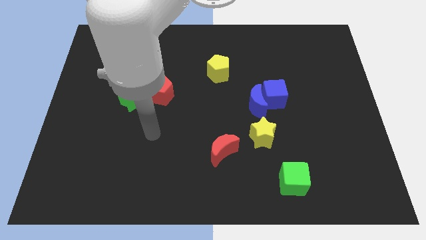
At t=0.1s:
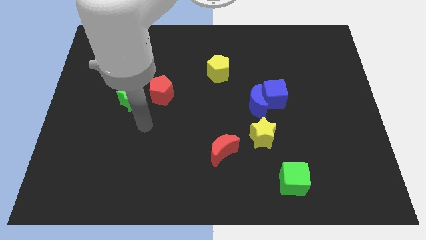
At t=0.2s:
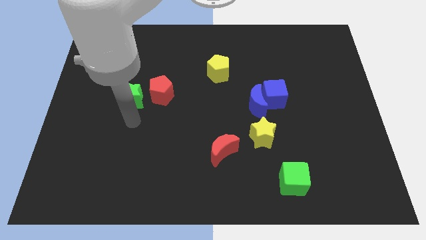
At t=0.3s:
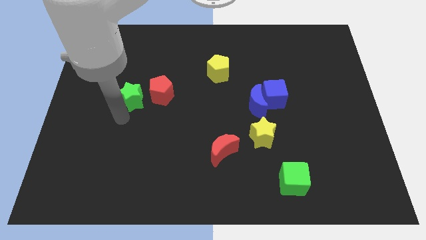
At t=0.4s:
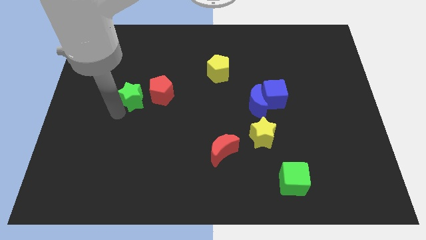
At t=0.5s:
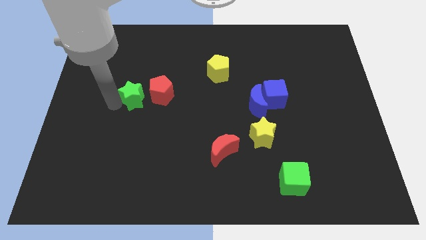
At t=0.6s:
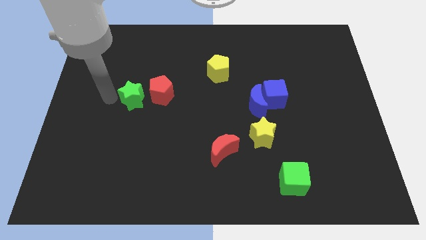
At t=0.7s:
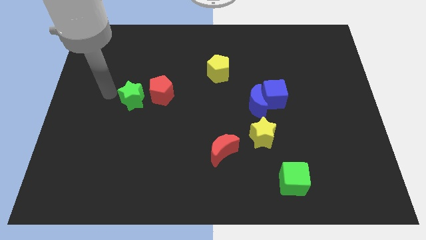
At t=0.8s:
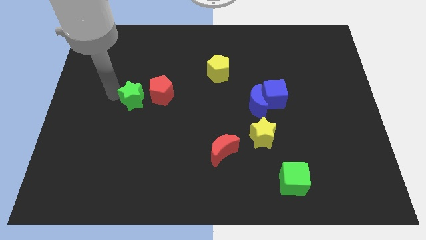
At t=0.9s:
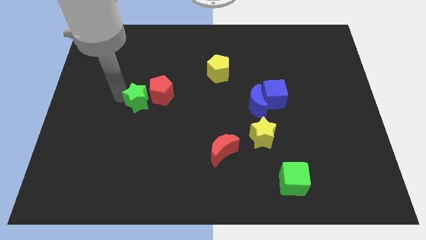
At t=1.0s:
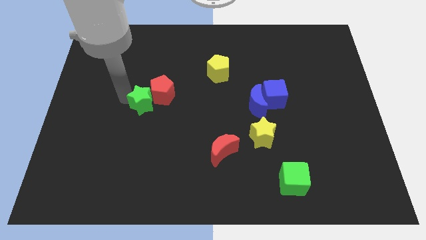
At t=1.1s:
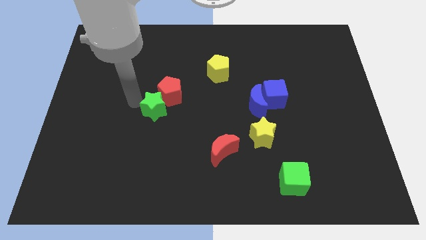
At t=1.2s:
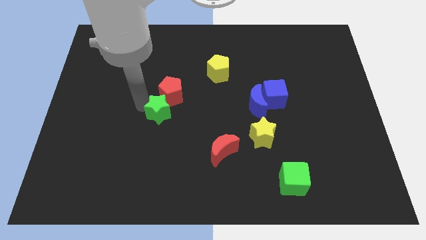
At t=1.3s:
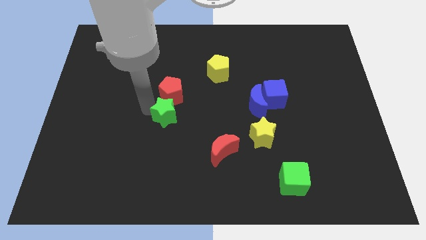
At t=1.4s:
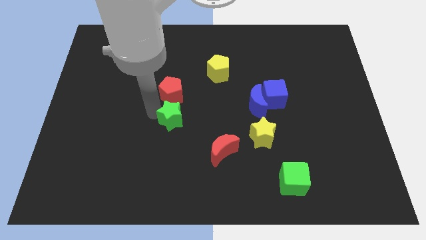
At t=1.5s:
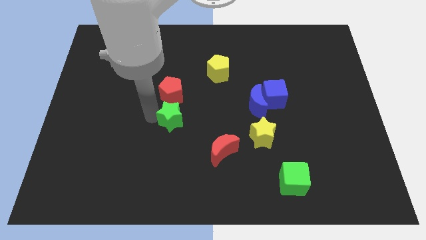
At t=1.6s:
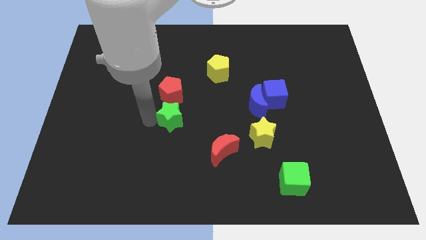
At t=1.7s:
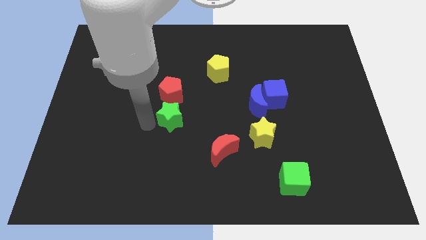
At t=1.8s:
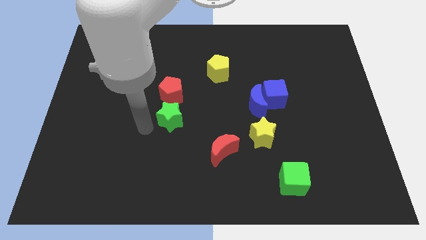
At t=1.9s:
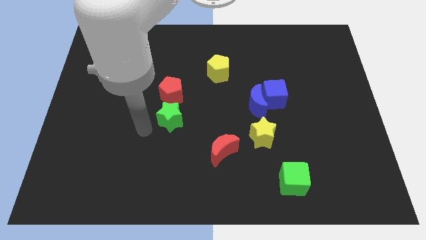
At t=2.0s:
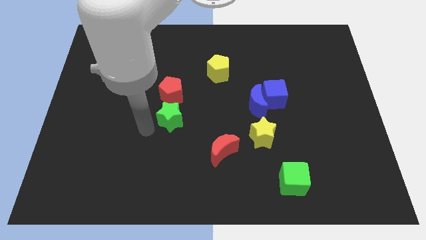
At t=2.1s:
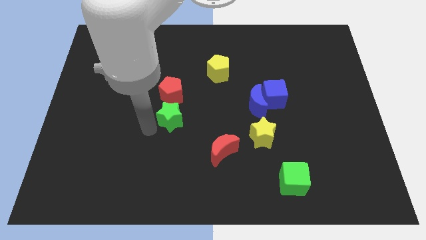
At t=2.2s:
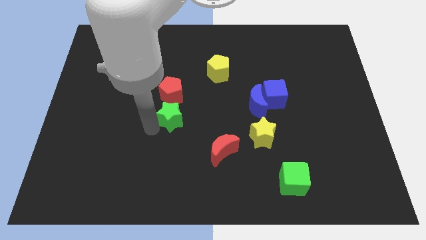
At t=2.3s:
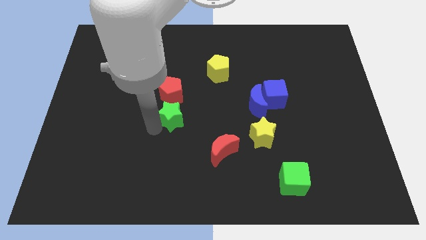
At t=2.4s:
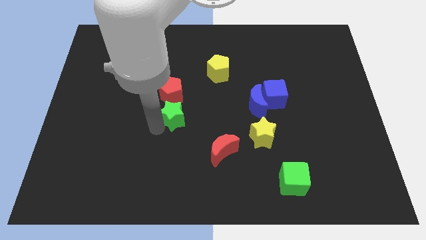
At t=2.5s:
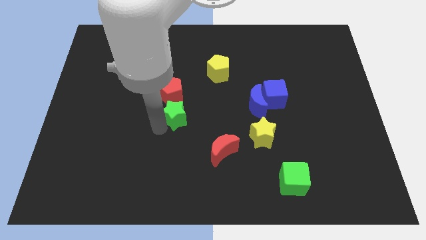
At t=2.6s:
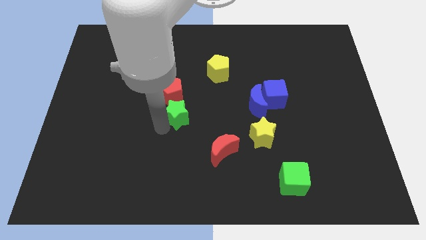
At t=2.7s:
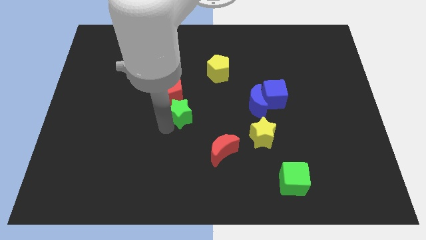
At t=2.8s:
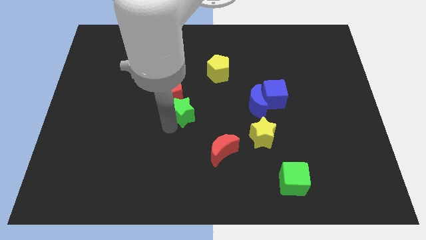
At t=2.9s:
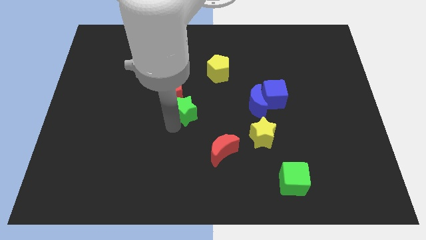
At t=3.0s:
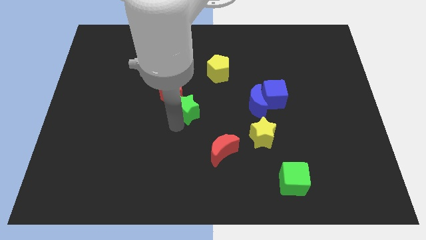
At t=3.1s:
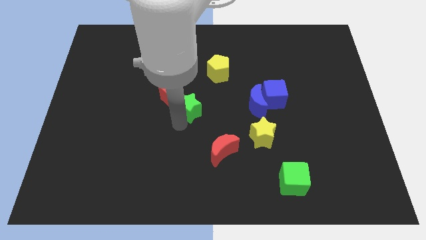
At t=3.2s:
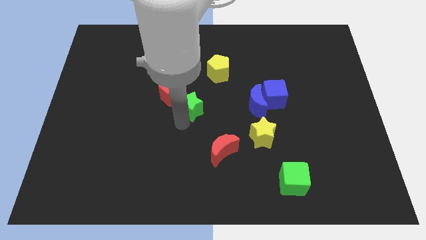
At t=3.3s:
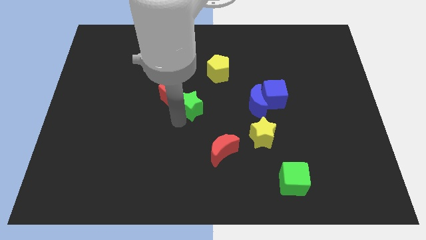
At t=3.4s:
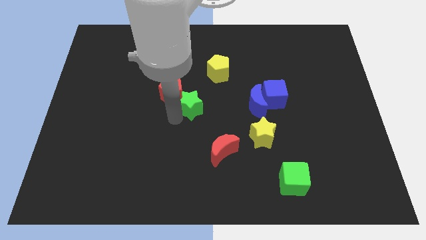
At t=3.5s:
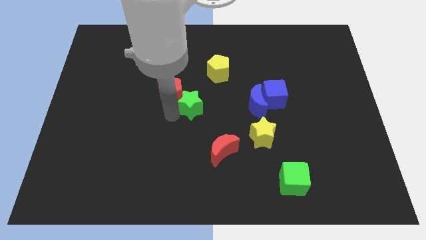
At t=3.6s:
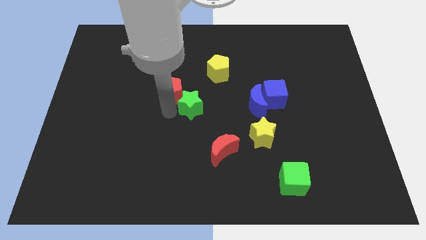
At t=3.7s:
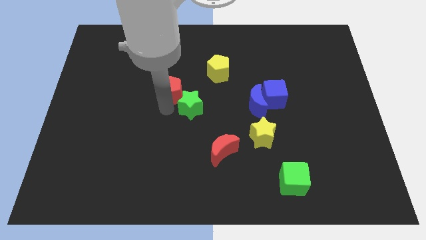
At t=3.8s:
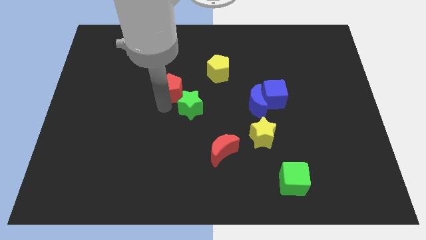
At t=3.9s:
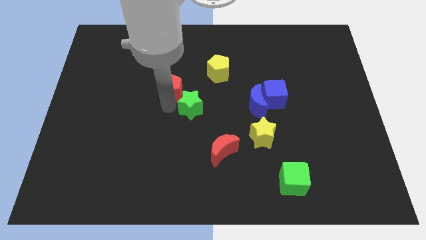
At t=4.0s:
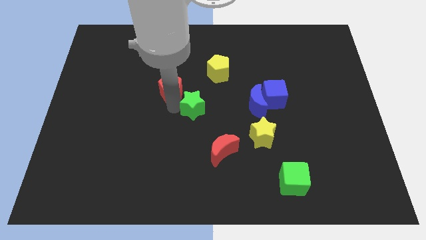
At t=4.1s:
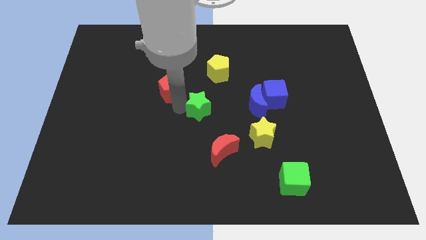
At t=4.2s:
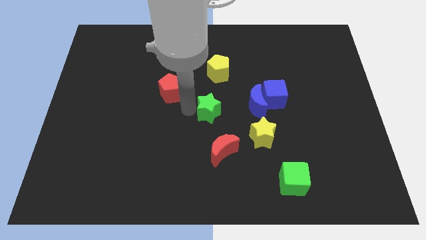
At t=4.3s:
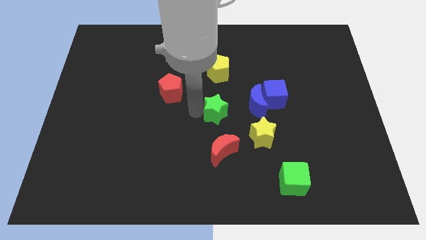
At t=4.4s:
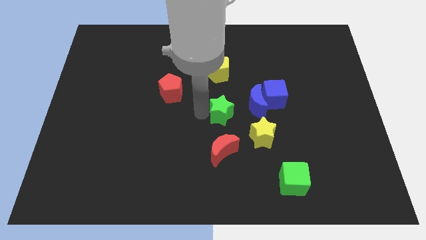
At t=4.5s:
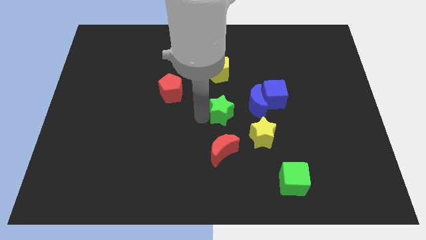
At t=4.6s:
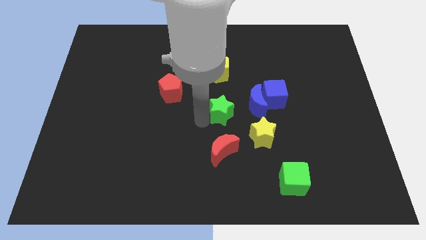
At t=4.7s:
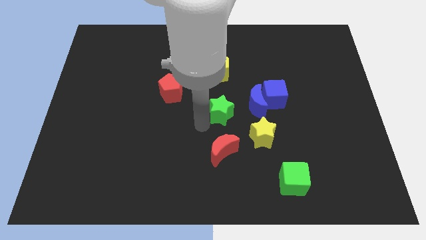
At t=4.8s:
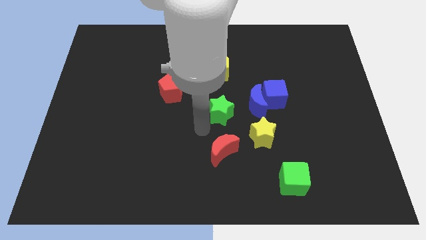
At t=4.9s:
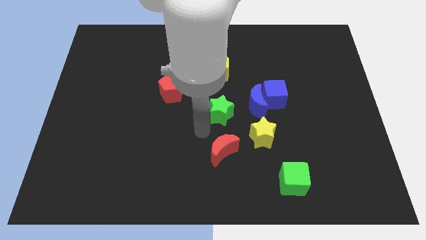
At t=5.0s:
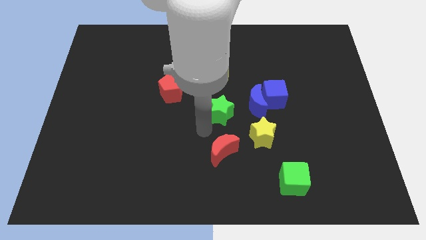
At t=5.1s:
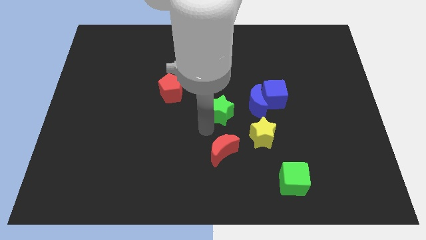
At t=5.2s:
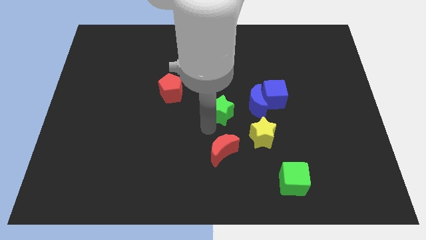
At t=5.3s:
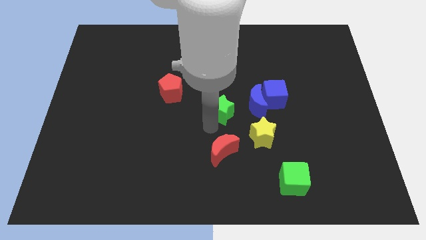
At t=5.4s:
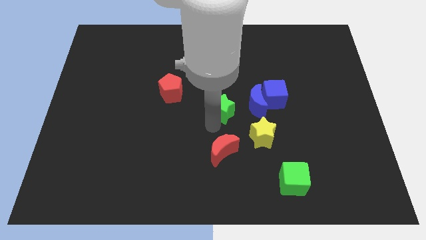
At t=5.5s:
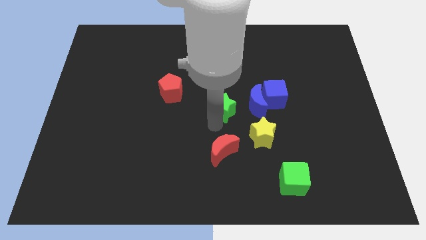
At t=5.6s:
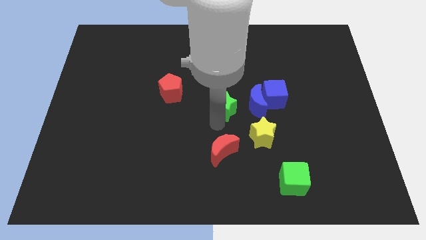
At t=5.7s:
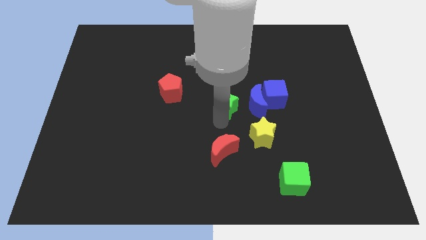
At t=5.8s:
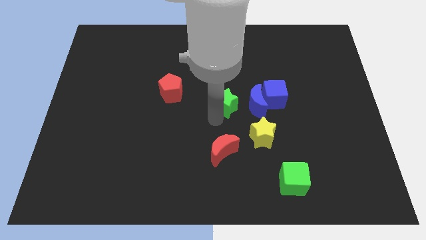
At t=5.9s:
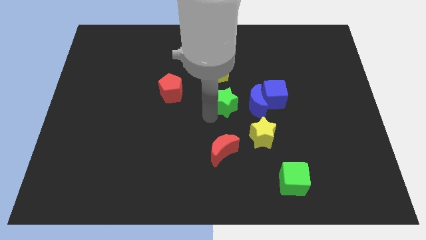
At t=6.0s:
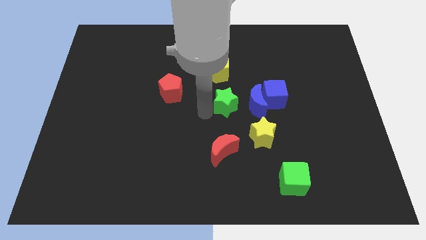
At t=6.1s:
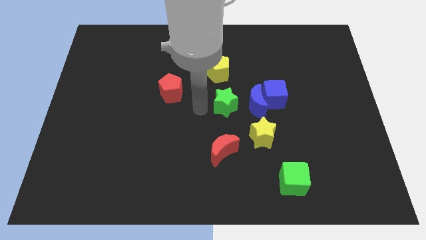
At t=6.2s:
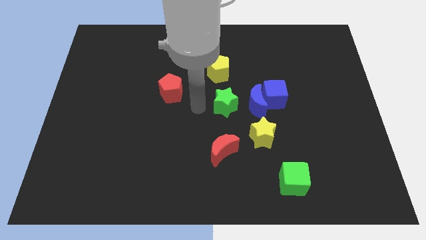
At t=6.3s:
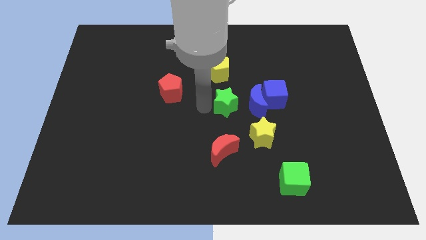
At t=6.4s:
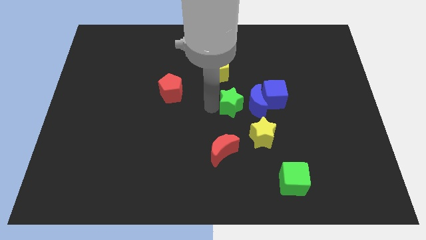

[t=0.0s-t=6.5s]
push the green star towards the blue moon
